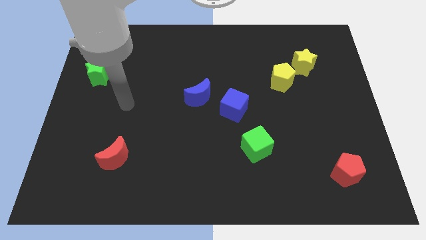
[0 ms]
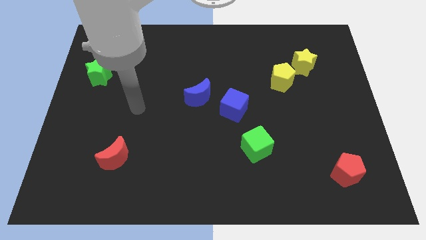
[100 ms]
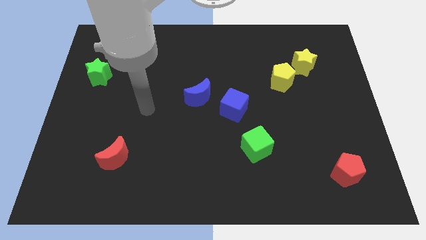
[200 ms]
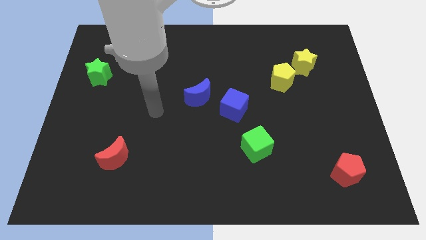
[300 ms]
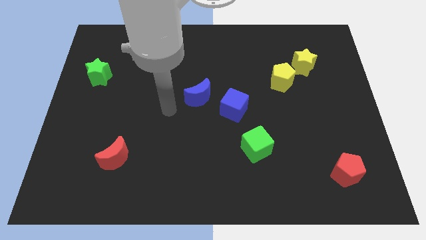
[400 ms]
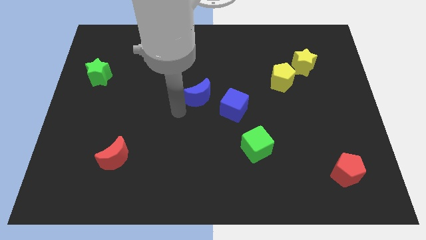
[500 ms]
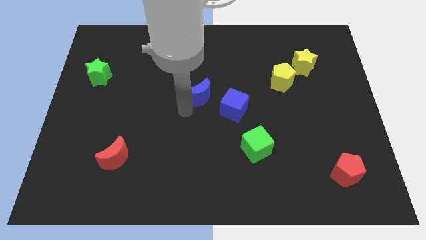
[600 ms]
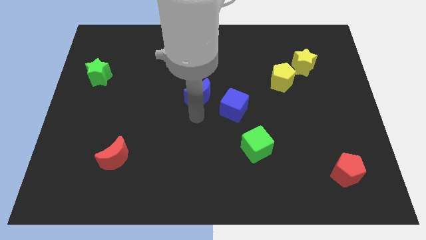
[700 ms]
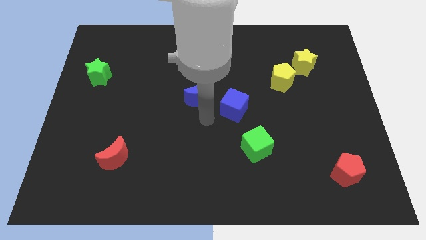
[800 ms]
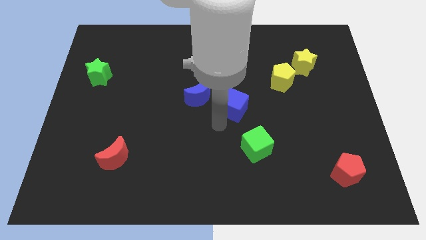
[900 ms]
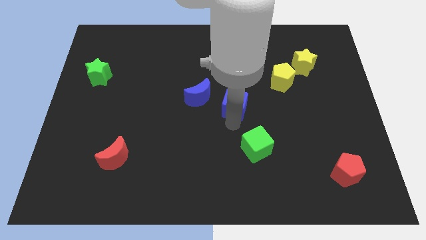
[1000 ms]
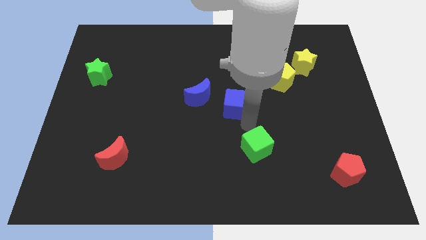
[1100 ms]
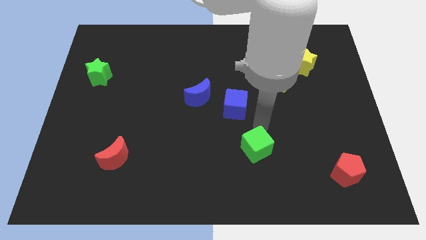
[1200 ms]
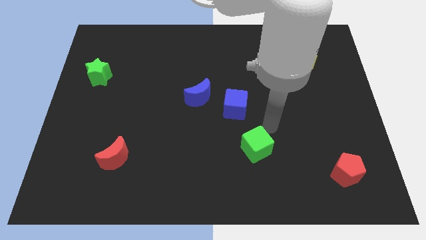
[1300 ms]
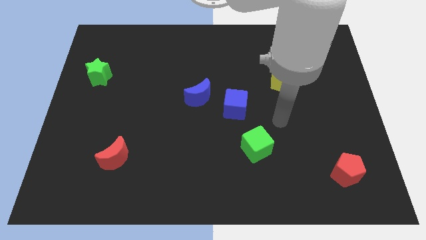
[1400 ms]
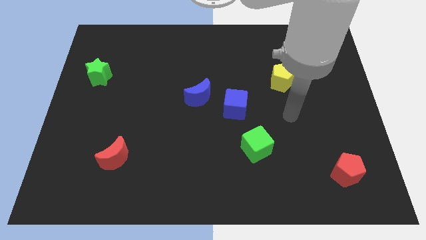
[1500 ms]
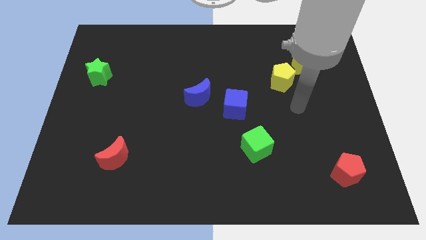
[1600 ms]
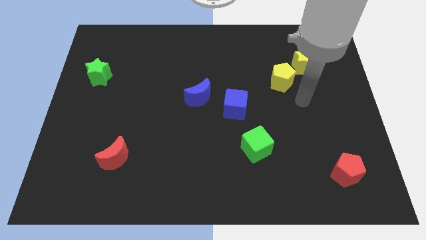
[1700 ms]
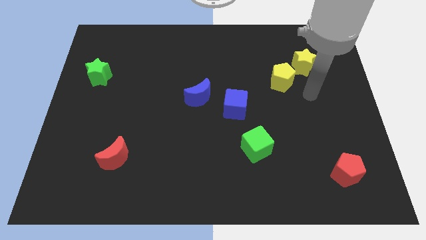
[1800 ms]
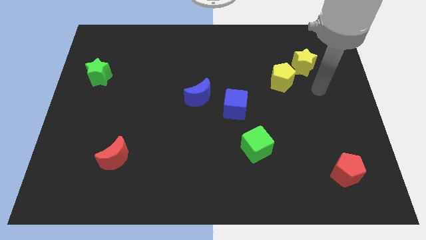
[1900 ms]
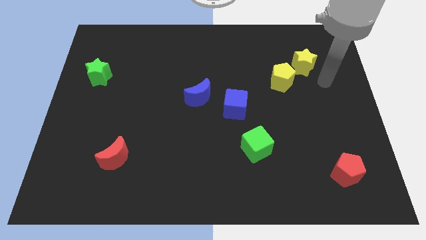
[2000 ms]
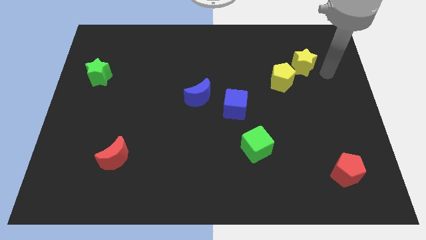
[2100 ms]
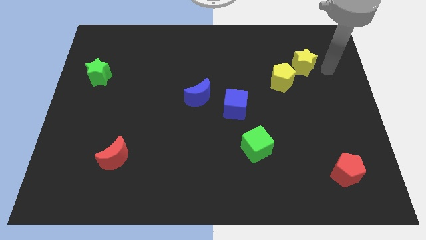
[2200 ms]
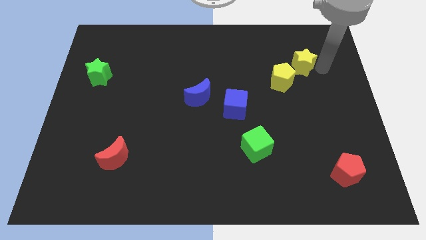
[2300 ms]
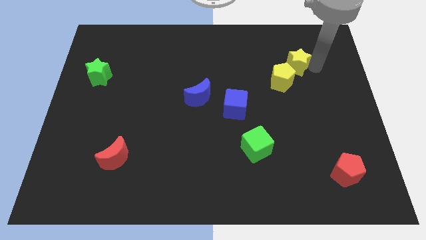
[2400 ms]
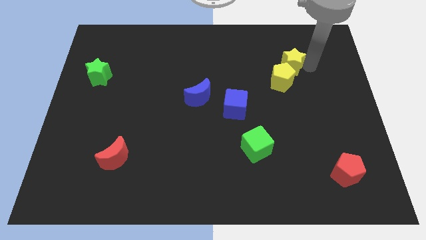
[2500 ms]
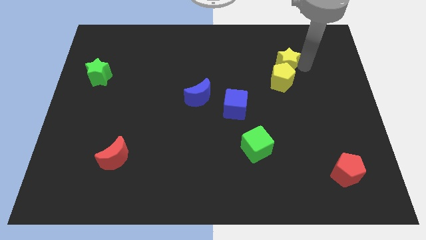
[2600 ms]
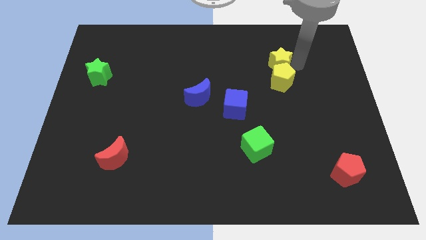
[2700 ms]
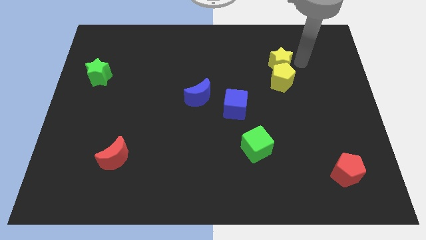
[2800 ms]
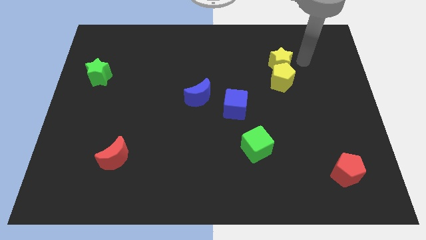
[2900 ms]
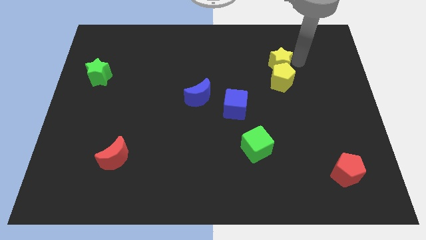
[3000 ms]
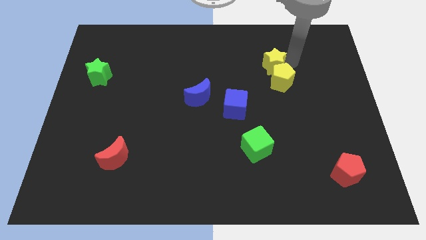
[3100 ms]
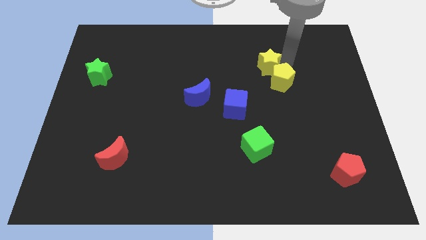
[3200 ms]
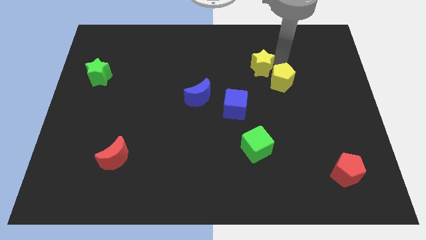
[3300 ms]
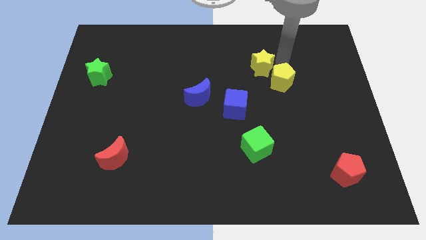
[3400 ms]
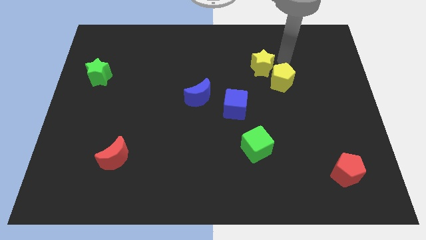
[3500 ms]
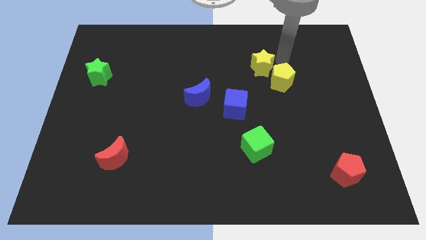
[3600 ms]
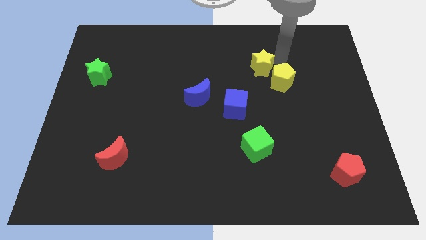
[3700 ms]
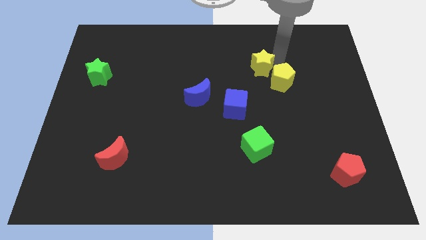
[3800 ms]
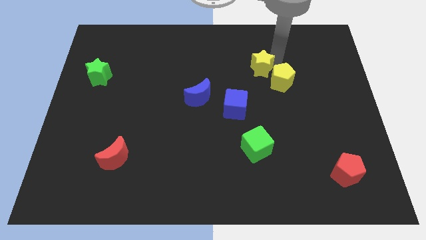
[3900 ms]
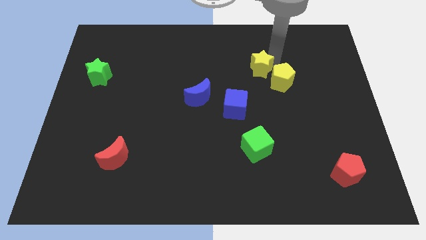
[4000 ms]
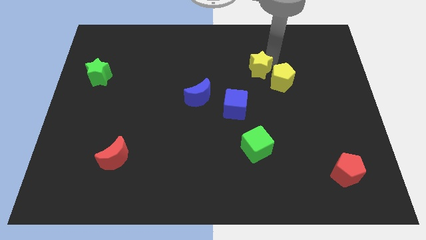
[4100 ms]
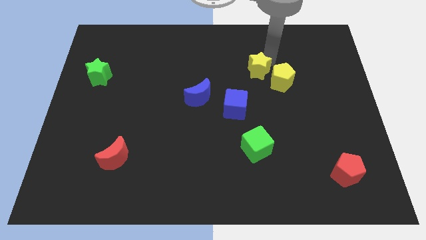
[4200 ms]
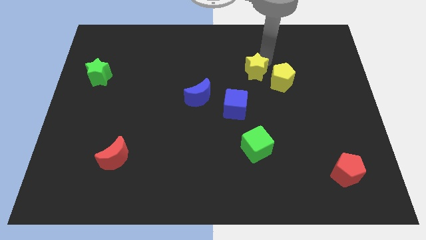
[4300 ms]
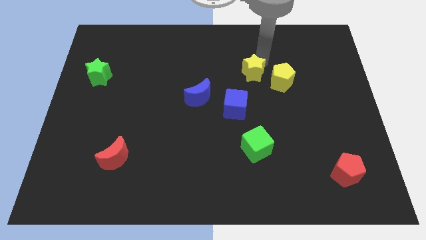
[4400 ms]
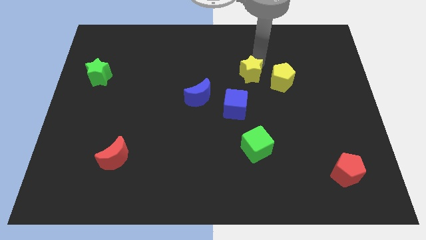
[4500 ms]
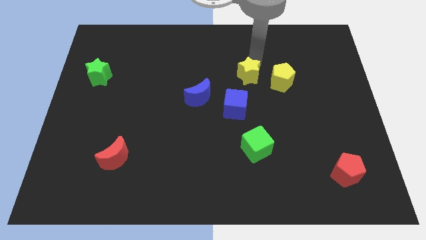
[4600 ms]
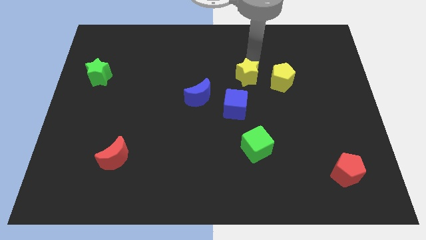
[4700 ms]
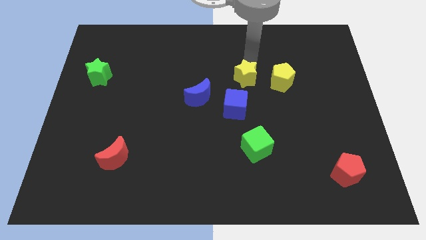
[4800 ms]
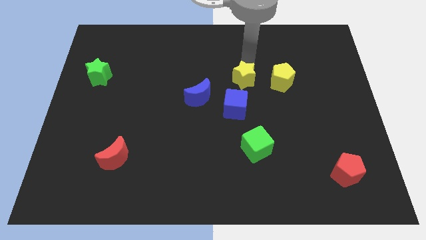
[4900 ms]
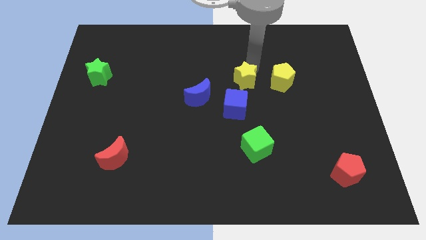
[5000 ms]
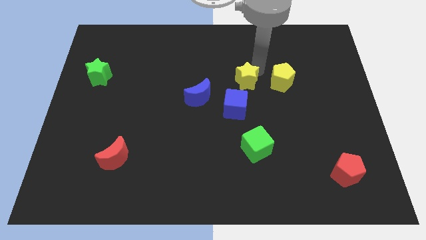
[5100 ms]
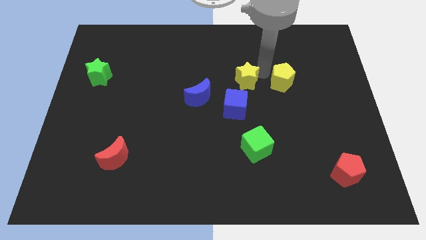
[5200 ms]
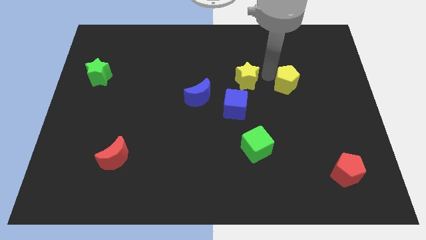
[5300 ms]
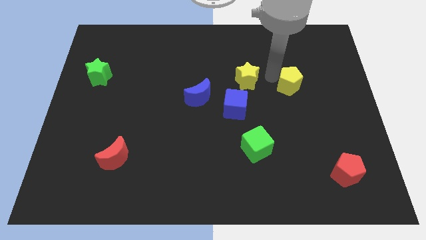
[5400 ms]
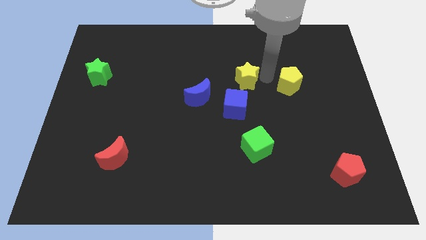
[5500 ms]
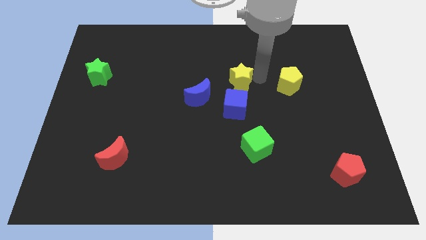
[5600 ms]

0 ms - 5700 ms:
put the yellow star to the top right of the blue moon

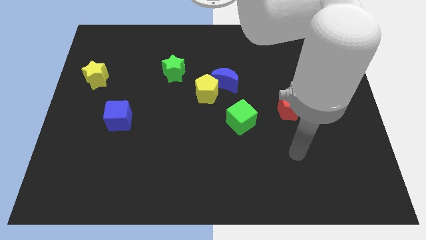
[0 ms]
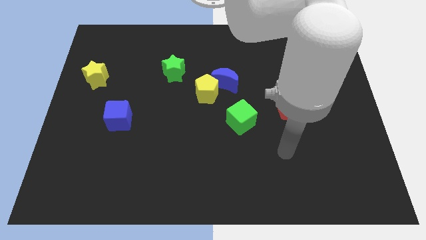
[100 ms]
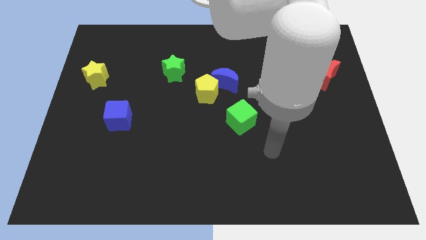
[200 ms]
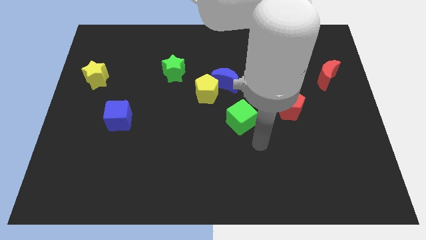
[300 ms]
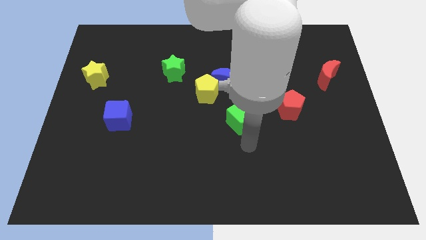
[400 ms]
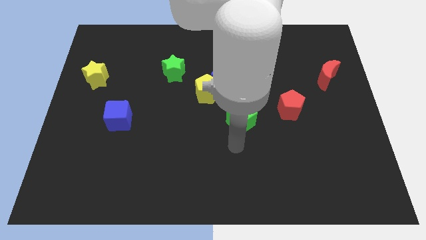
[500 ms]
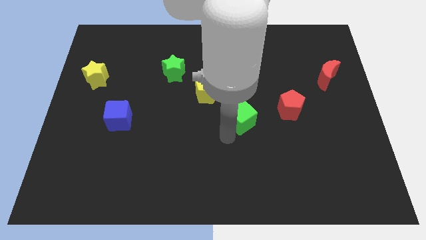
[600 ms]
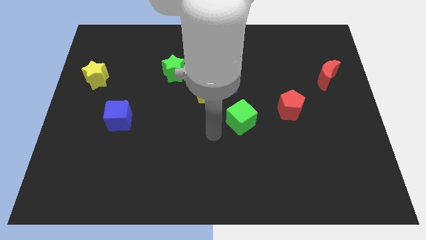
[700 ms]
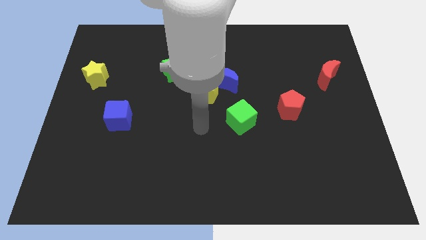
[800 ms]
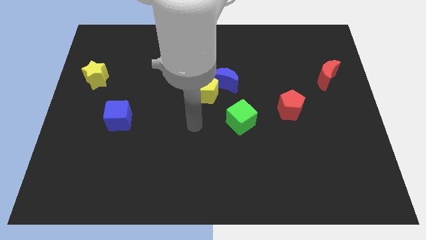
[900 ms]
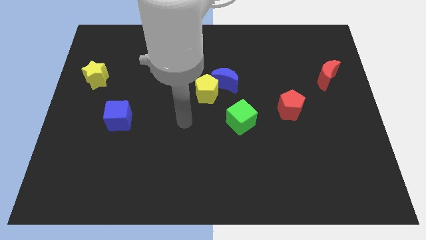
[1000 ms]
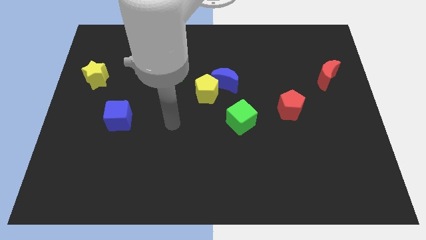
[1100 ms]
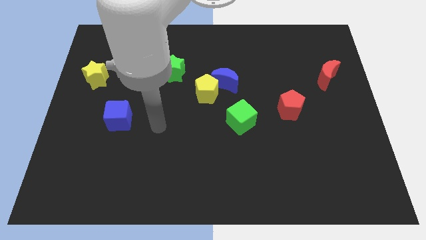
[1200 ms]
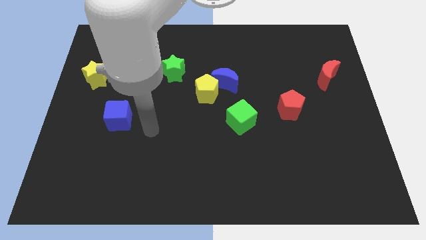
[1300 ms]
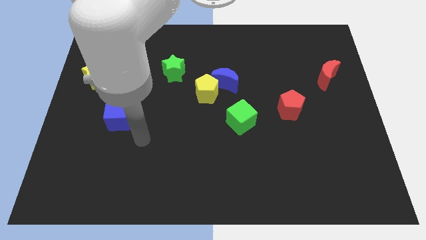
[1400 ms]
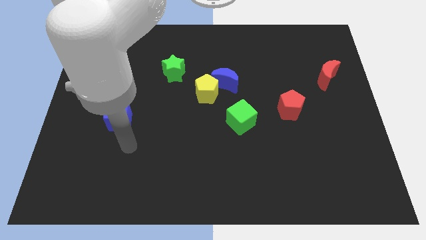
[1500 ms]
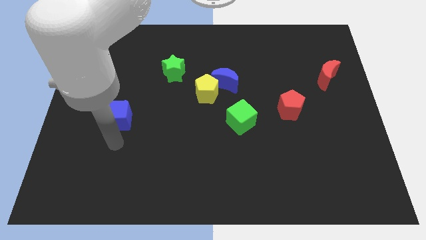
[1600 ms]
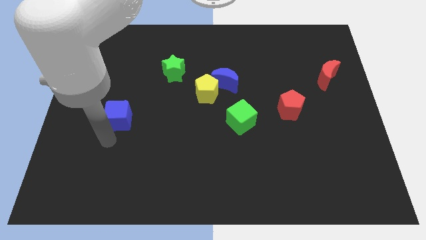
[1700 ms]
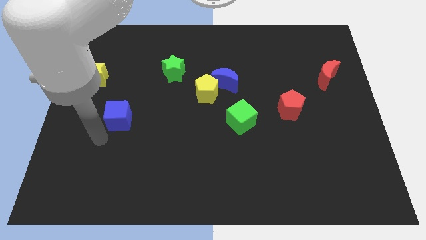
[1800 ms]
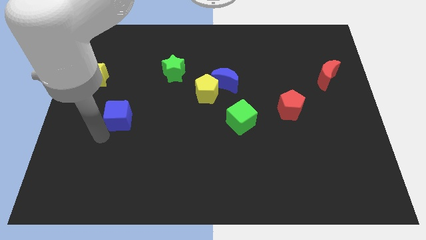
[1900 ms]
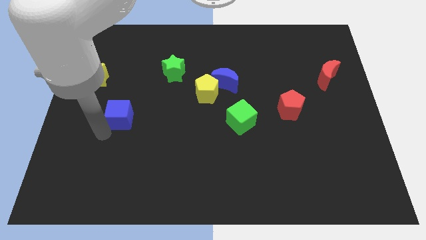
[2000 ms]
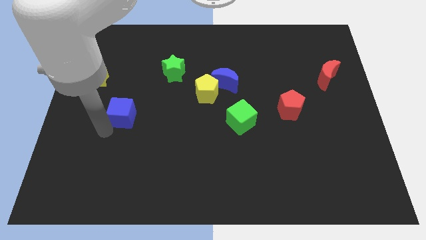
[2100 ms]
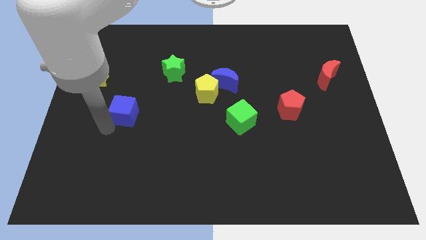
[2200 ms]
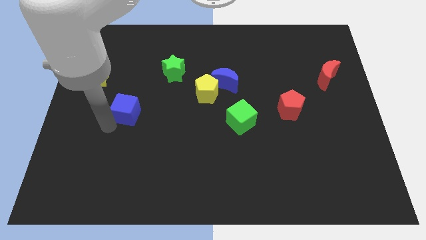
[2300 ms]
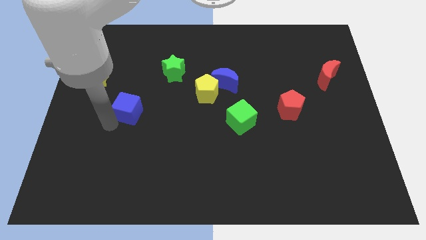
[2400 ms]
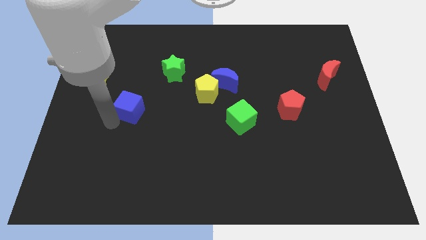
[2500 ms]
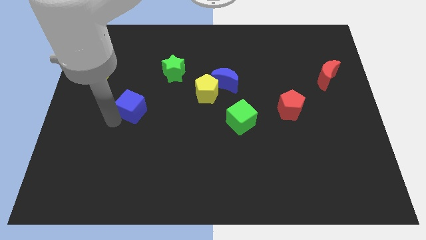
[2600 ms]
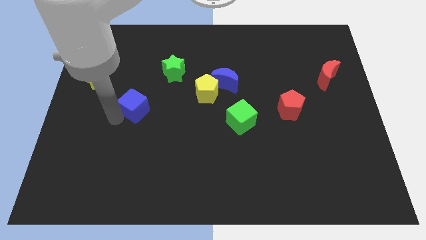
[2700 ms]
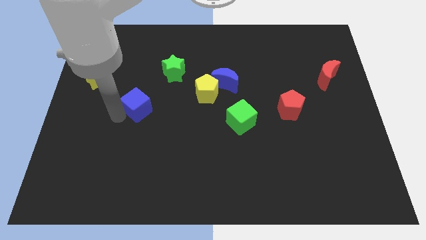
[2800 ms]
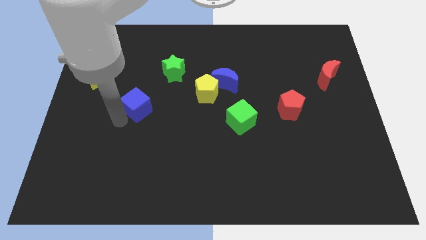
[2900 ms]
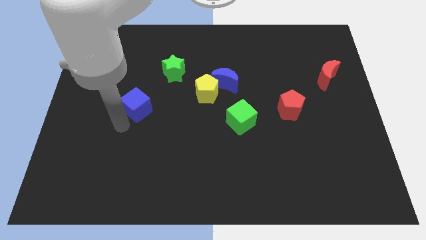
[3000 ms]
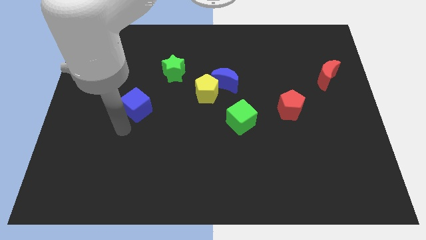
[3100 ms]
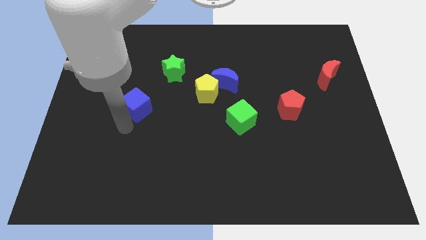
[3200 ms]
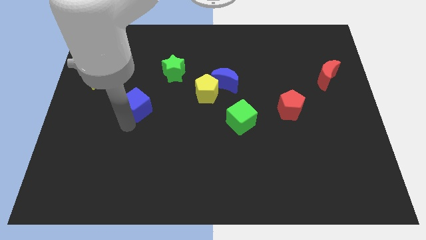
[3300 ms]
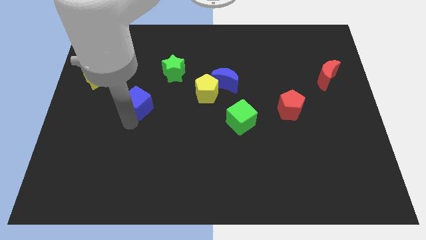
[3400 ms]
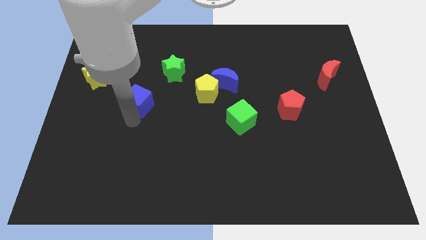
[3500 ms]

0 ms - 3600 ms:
move the blue cube to the bottom left of the green star
